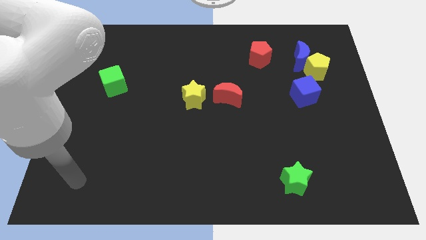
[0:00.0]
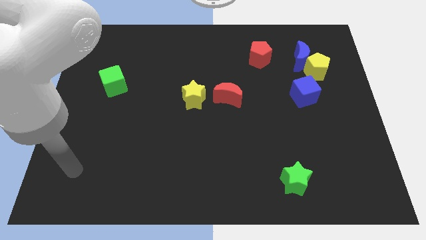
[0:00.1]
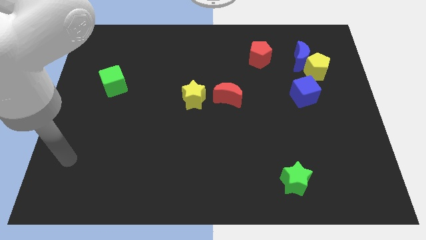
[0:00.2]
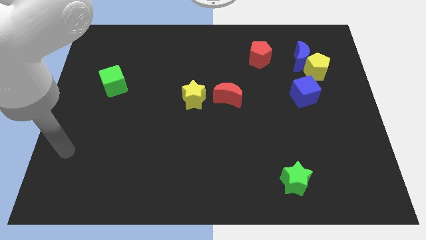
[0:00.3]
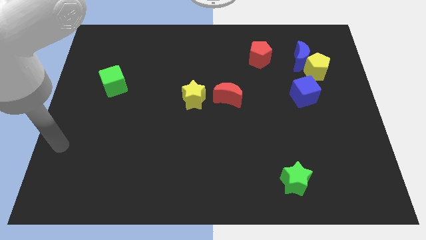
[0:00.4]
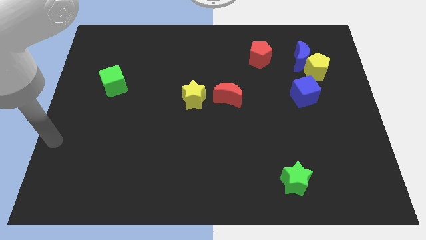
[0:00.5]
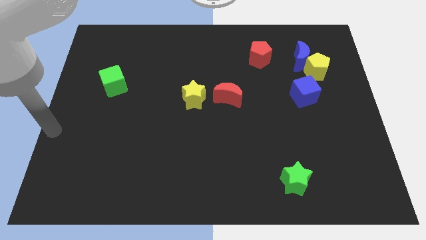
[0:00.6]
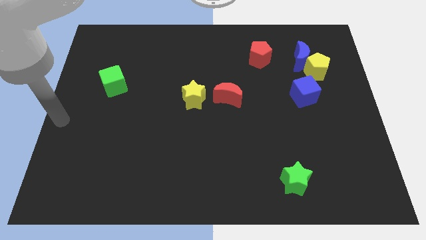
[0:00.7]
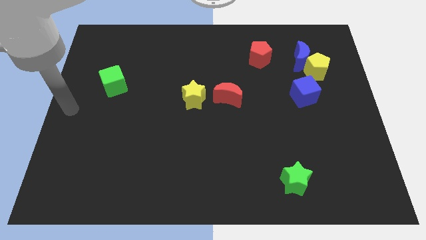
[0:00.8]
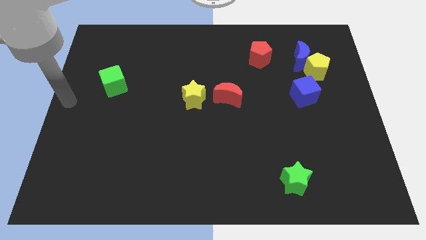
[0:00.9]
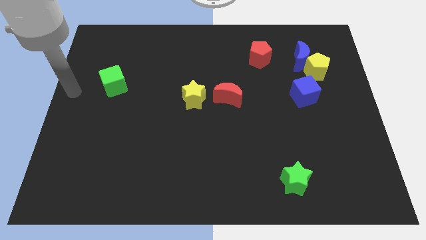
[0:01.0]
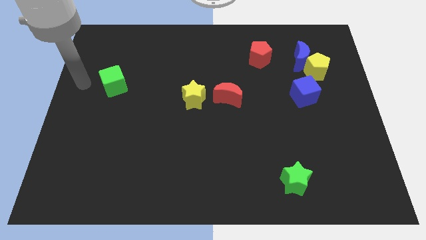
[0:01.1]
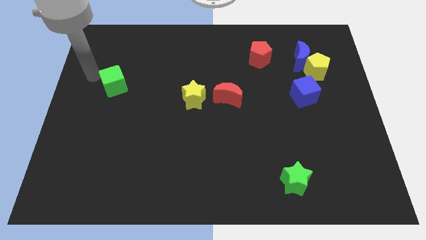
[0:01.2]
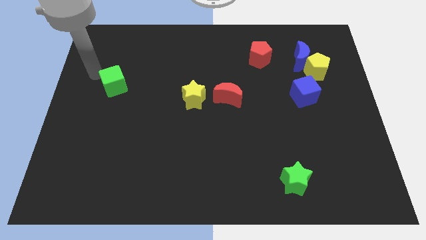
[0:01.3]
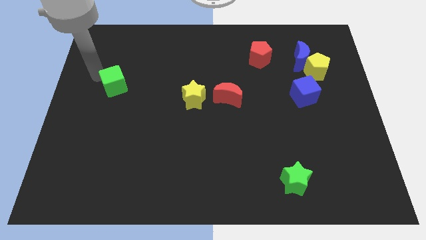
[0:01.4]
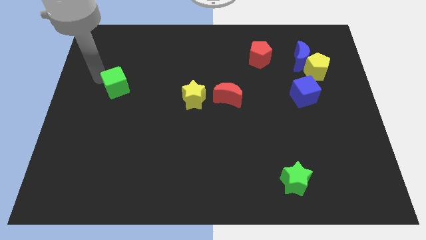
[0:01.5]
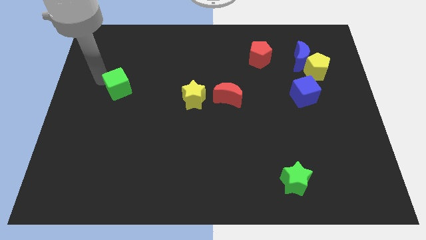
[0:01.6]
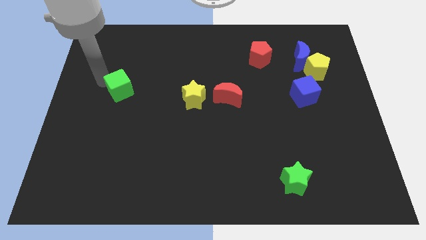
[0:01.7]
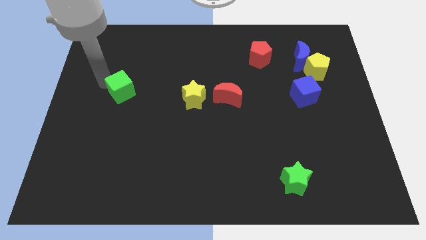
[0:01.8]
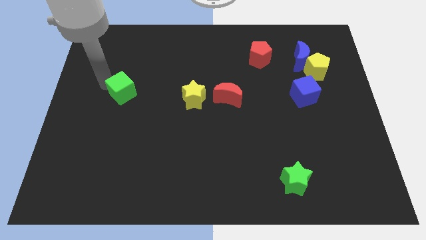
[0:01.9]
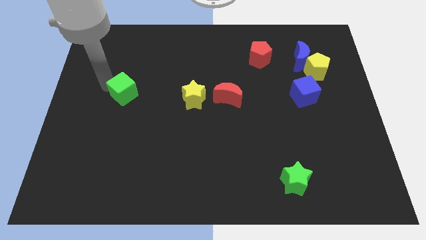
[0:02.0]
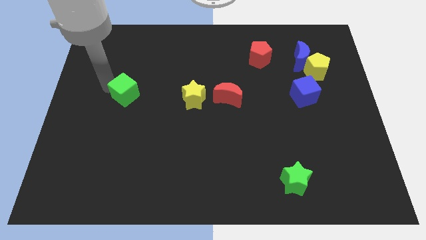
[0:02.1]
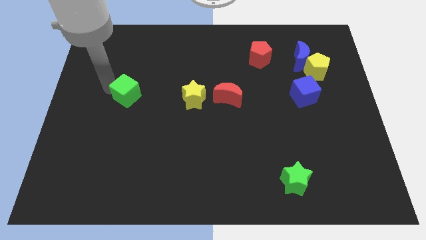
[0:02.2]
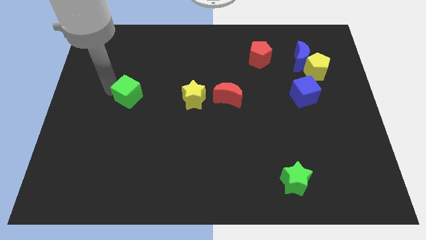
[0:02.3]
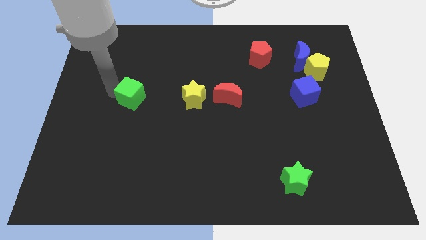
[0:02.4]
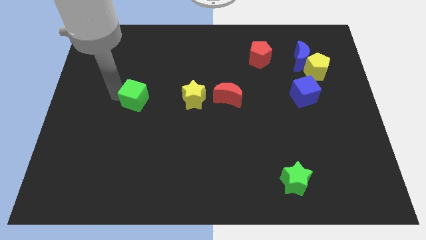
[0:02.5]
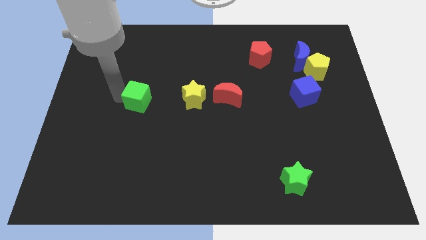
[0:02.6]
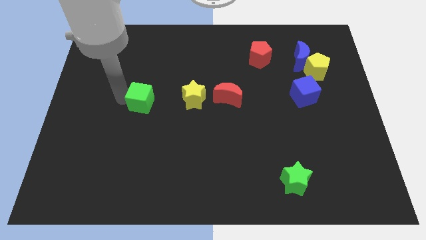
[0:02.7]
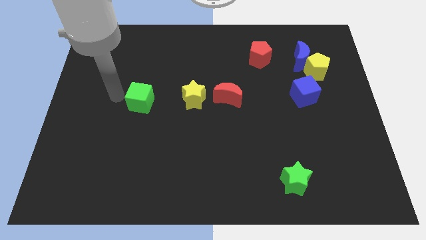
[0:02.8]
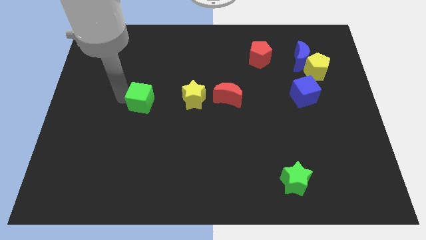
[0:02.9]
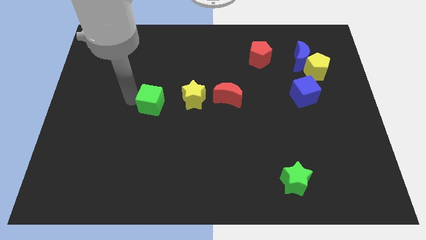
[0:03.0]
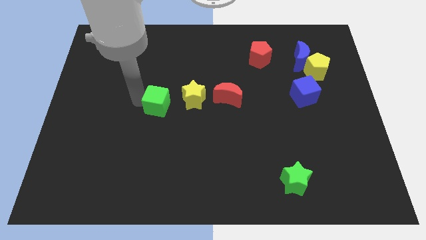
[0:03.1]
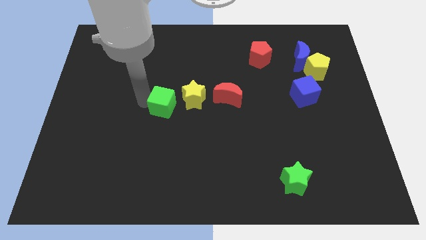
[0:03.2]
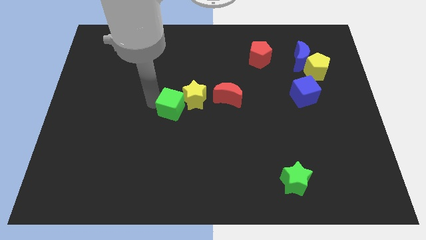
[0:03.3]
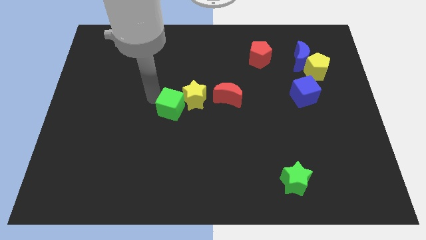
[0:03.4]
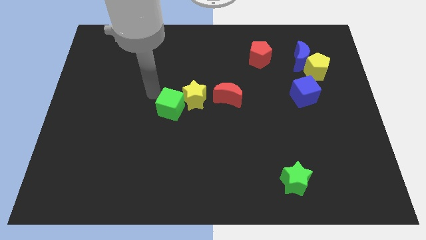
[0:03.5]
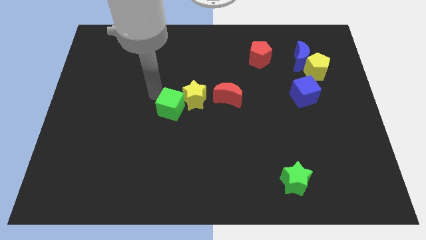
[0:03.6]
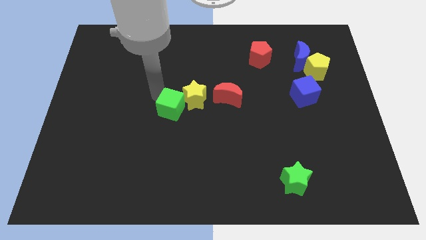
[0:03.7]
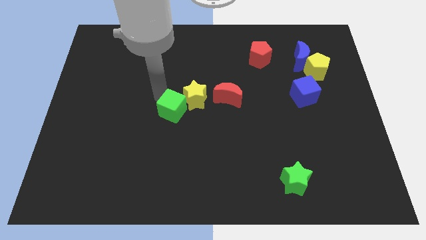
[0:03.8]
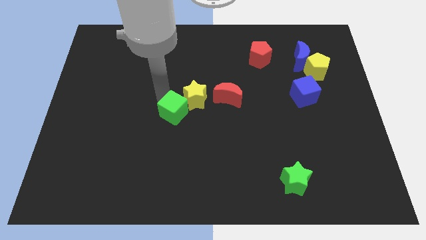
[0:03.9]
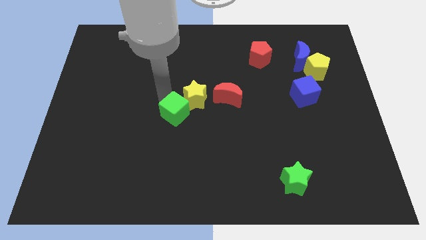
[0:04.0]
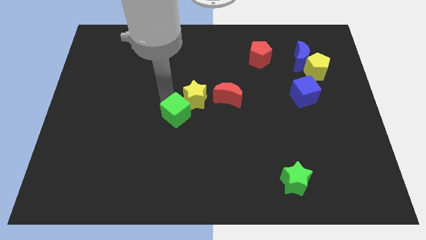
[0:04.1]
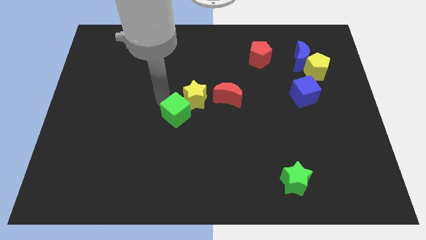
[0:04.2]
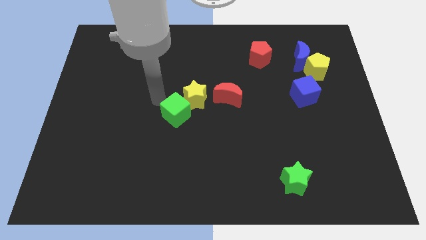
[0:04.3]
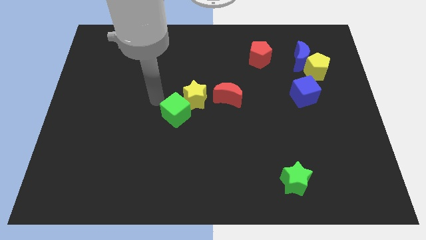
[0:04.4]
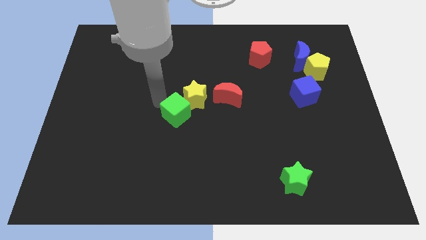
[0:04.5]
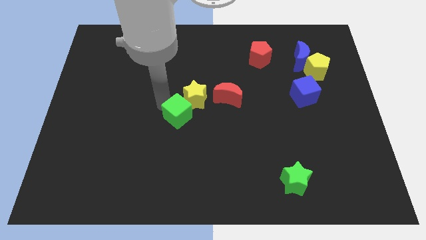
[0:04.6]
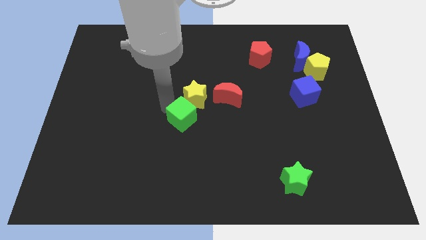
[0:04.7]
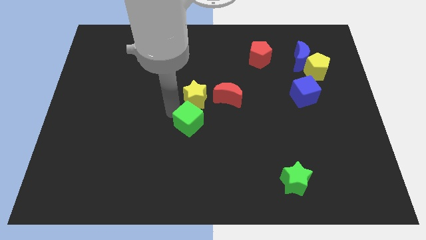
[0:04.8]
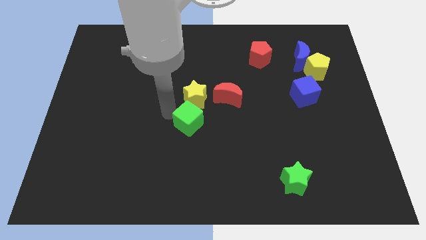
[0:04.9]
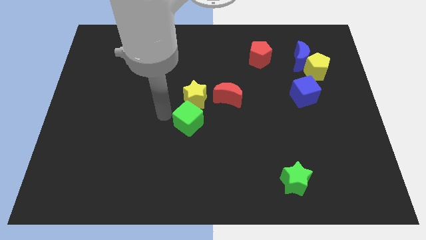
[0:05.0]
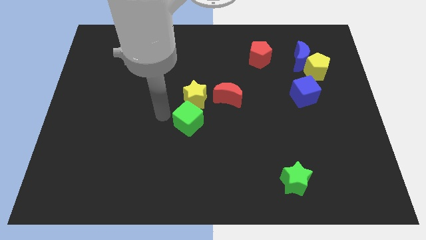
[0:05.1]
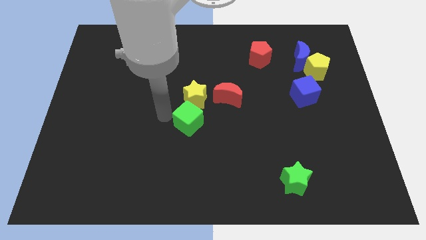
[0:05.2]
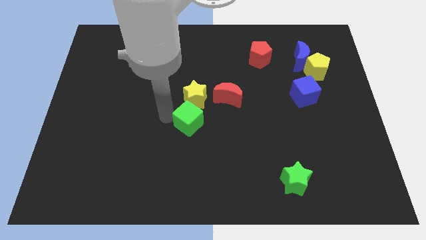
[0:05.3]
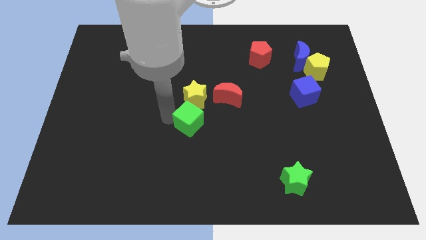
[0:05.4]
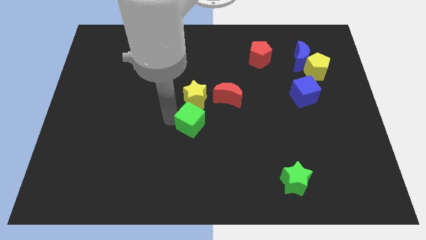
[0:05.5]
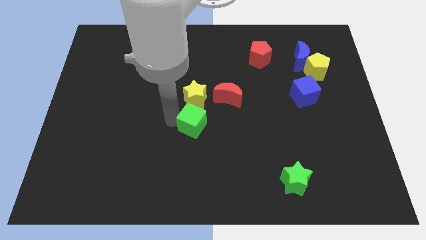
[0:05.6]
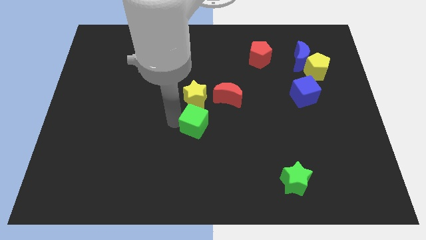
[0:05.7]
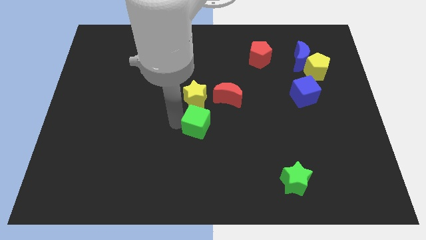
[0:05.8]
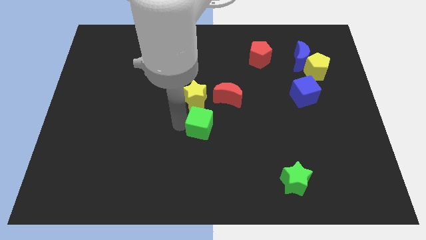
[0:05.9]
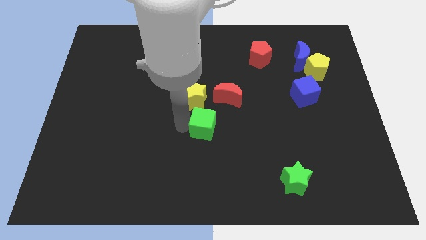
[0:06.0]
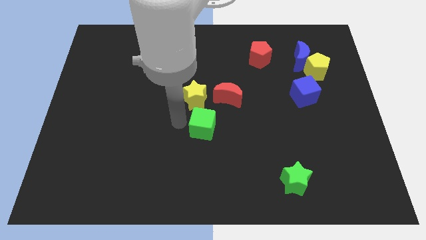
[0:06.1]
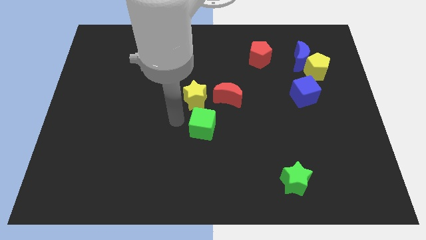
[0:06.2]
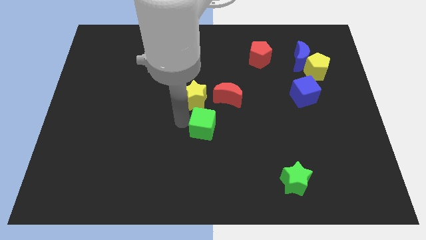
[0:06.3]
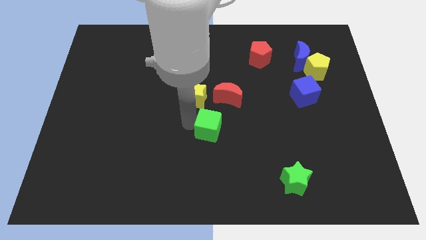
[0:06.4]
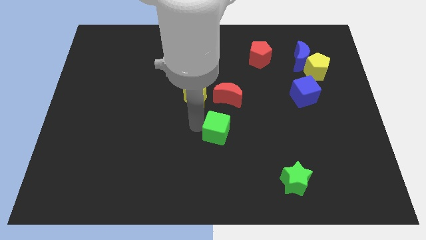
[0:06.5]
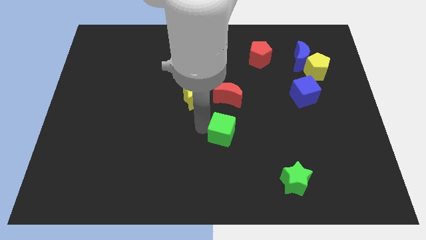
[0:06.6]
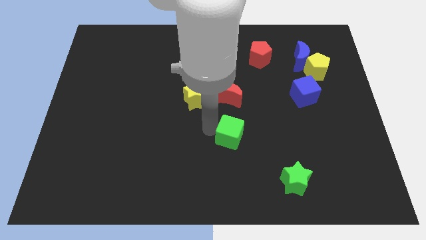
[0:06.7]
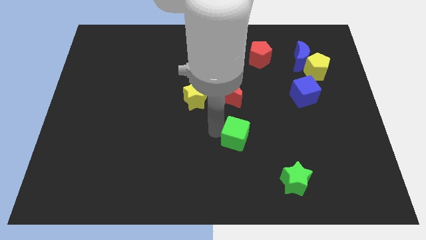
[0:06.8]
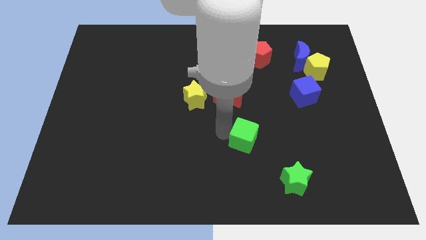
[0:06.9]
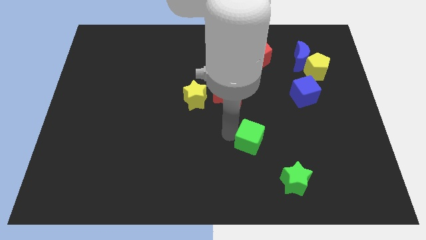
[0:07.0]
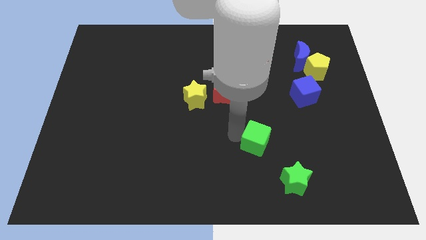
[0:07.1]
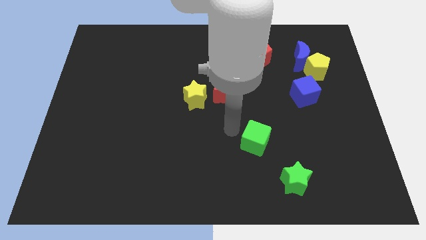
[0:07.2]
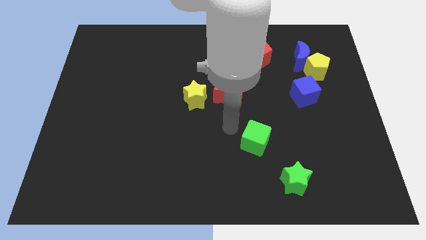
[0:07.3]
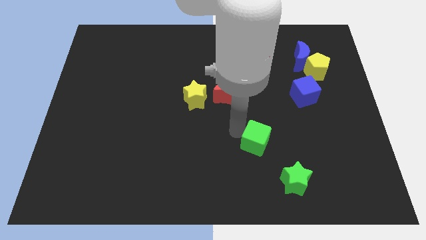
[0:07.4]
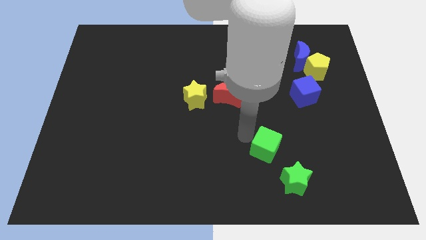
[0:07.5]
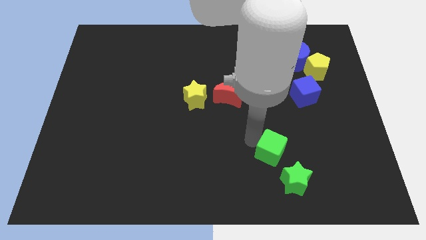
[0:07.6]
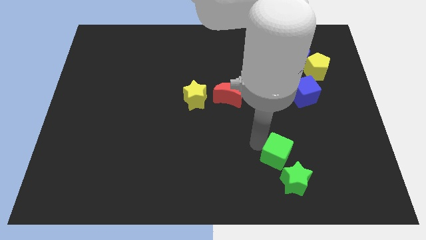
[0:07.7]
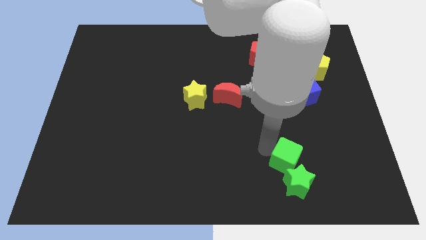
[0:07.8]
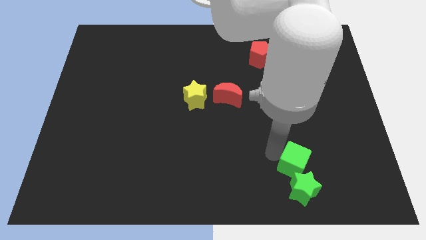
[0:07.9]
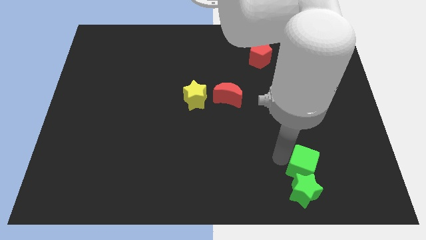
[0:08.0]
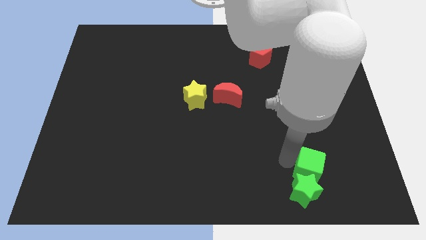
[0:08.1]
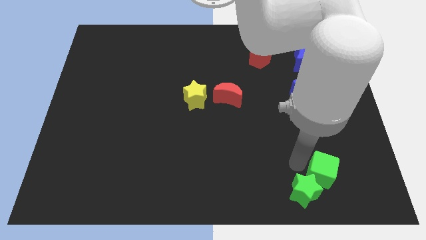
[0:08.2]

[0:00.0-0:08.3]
move the green cube right of the green star

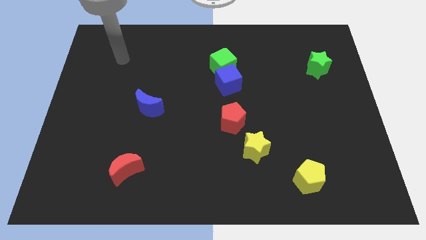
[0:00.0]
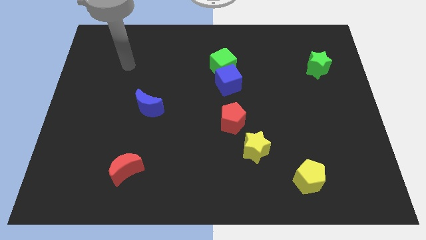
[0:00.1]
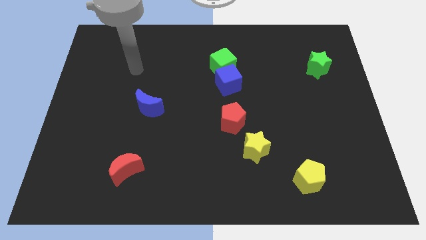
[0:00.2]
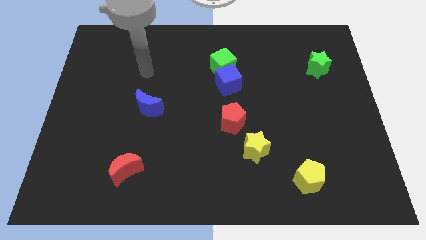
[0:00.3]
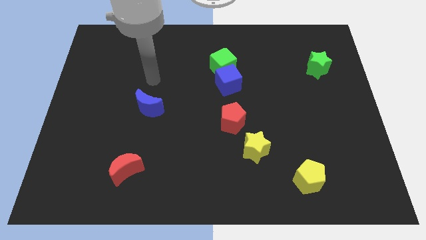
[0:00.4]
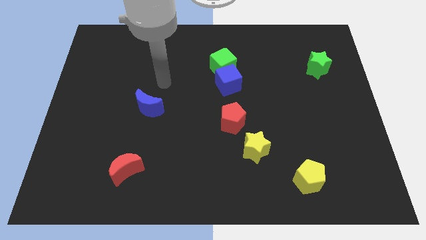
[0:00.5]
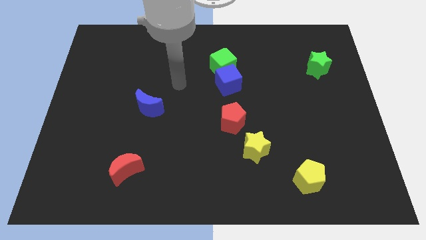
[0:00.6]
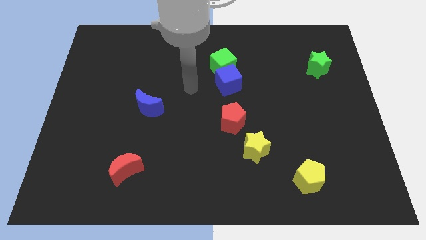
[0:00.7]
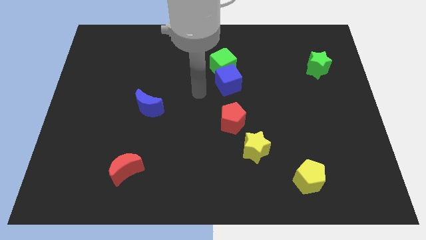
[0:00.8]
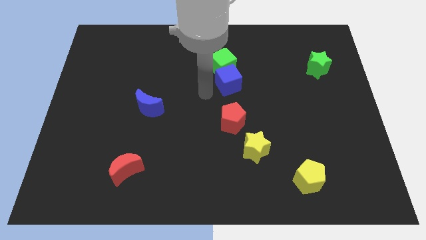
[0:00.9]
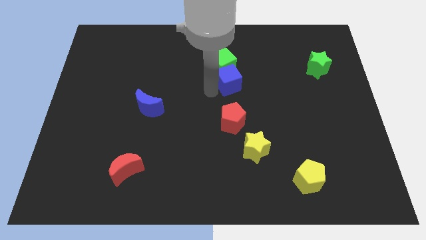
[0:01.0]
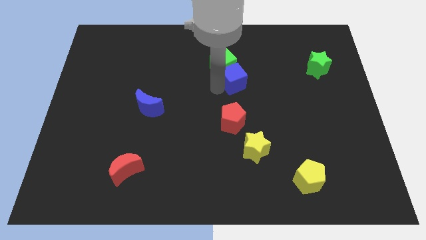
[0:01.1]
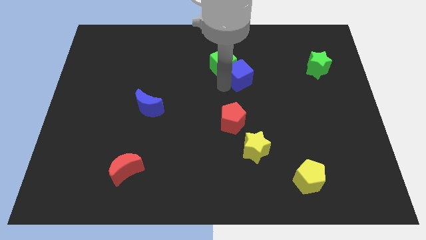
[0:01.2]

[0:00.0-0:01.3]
move the blue cube right of the green cube
